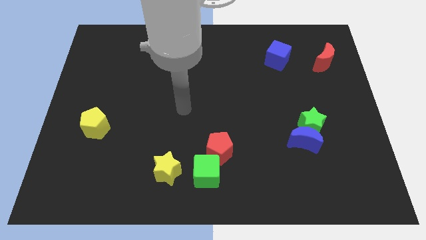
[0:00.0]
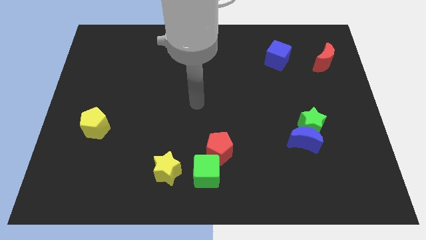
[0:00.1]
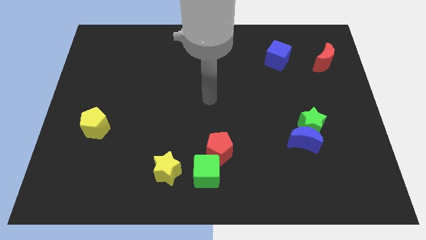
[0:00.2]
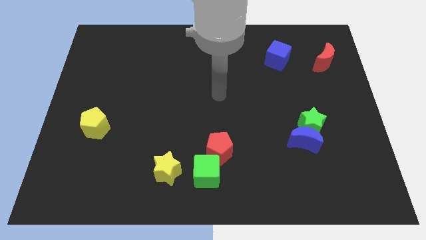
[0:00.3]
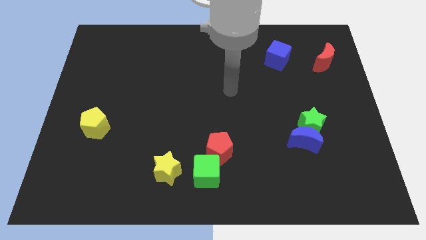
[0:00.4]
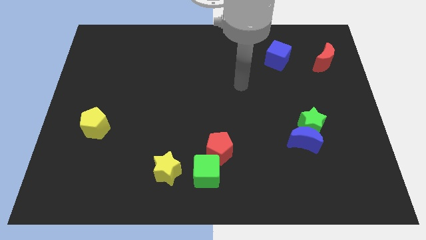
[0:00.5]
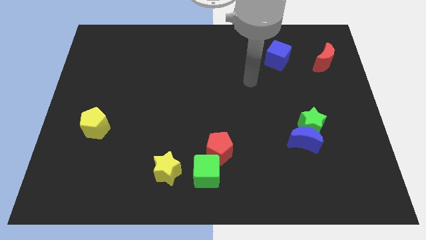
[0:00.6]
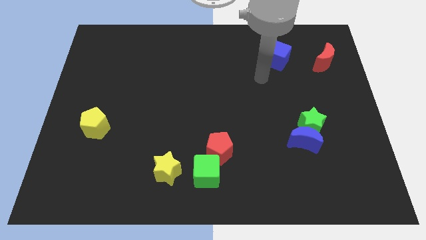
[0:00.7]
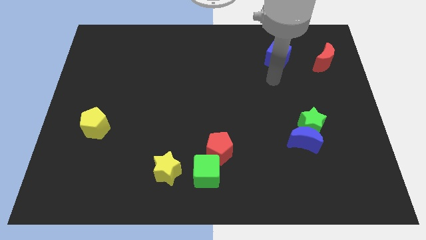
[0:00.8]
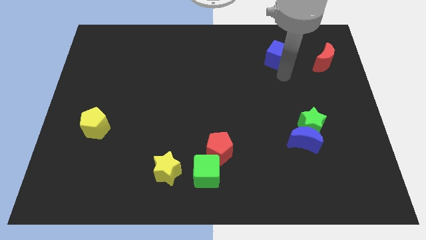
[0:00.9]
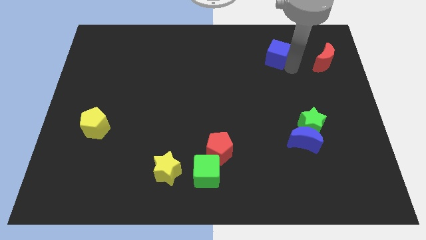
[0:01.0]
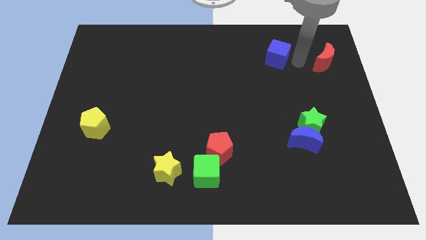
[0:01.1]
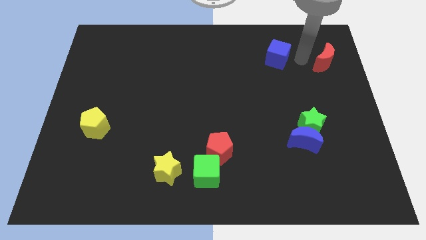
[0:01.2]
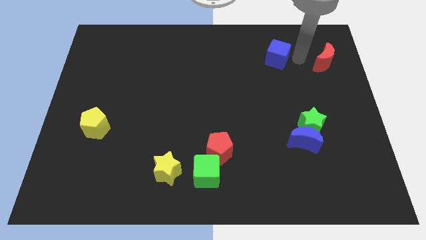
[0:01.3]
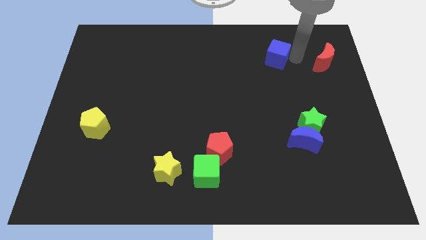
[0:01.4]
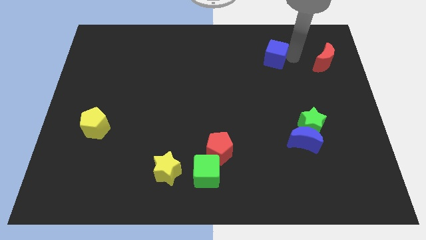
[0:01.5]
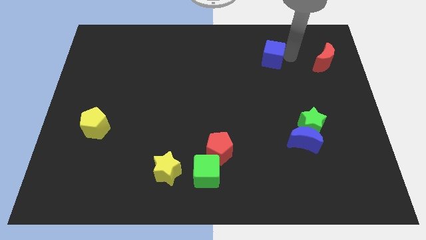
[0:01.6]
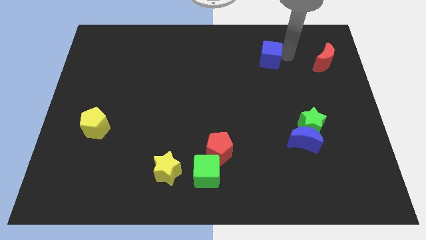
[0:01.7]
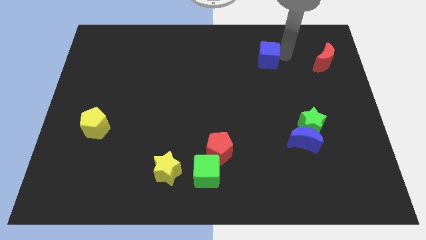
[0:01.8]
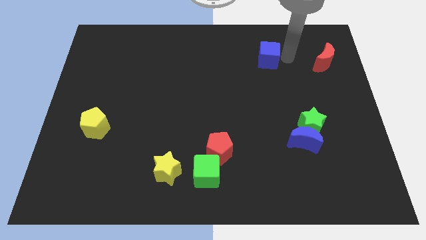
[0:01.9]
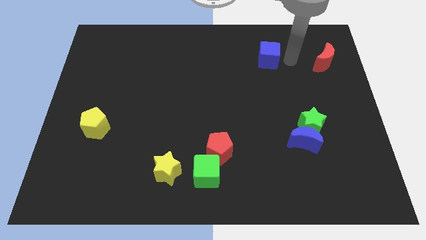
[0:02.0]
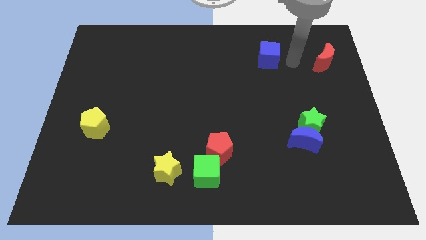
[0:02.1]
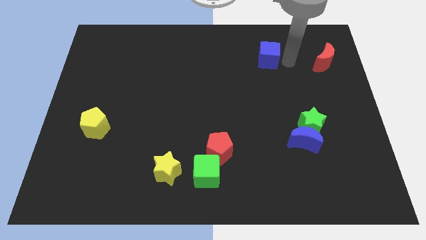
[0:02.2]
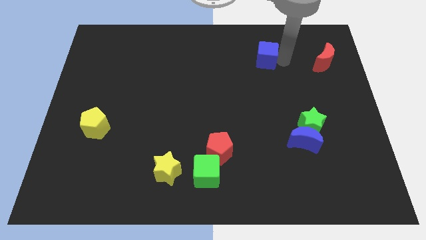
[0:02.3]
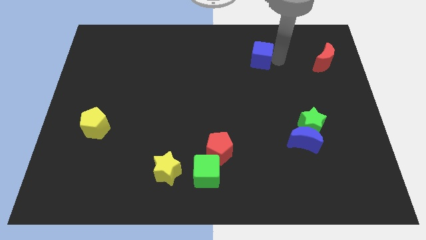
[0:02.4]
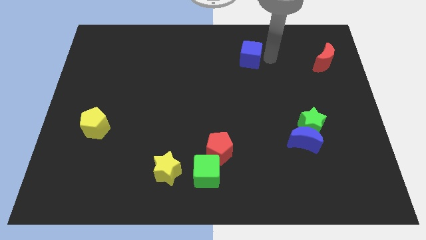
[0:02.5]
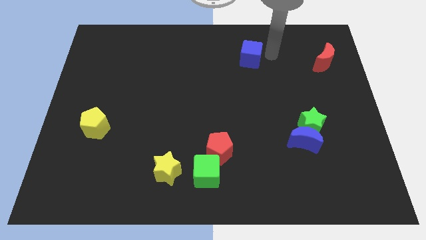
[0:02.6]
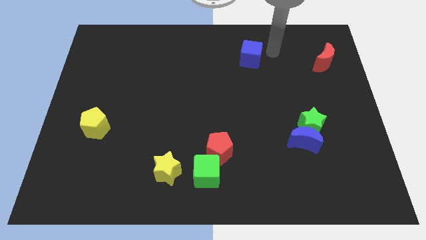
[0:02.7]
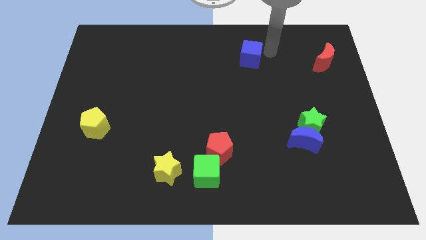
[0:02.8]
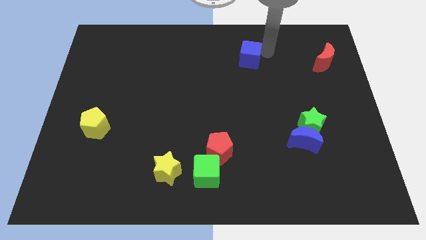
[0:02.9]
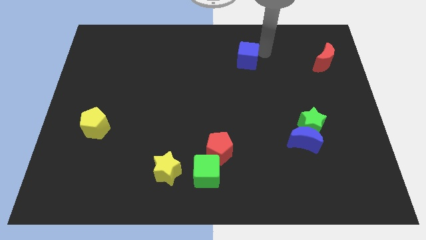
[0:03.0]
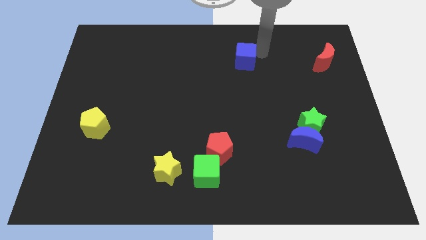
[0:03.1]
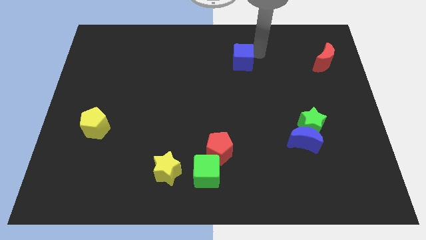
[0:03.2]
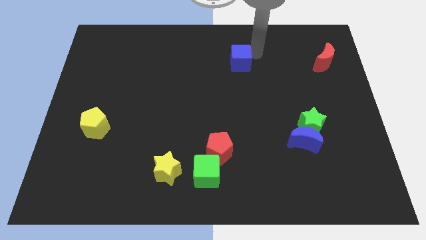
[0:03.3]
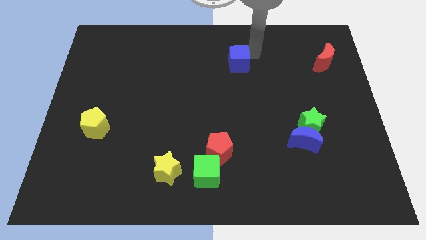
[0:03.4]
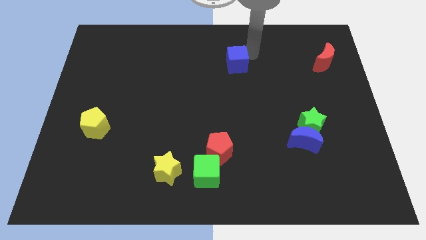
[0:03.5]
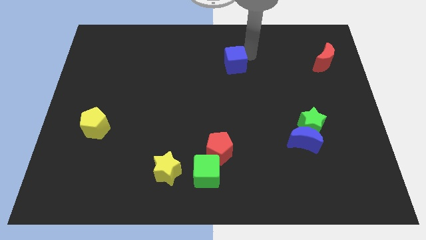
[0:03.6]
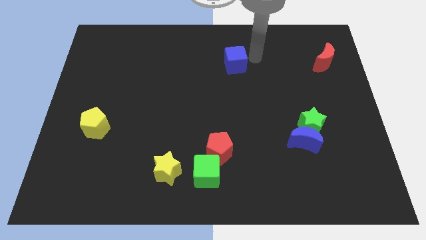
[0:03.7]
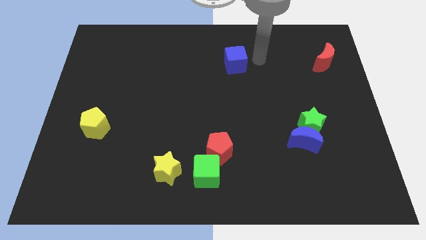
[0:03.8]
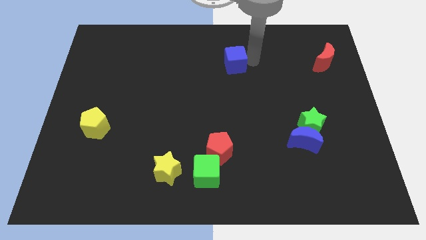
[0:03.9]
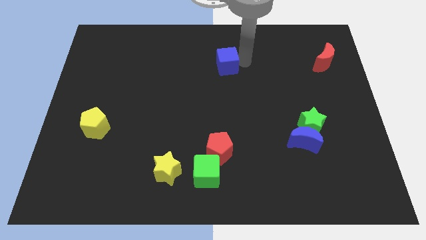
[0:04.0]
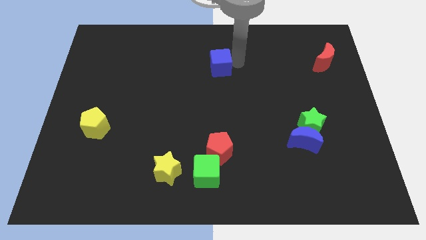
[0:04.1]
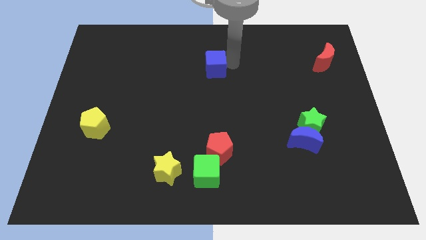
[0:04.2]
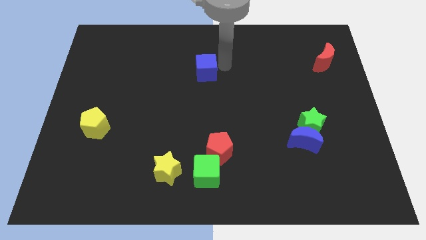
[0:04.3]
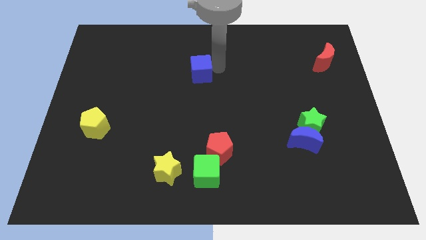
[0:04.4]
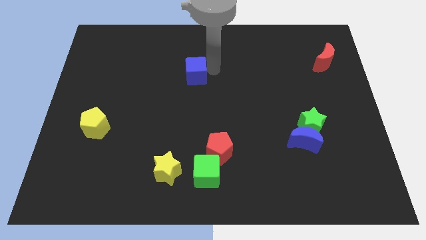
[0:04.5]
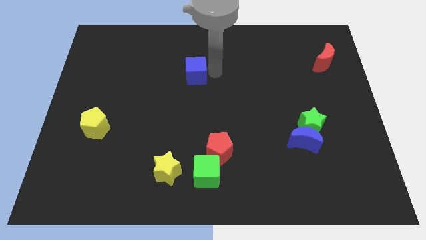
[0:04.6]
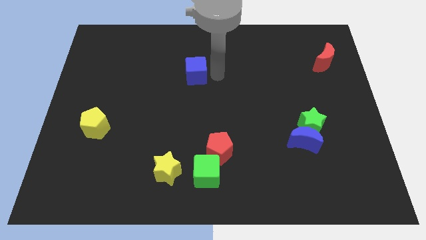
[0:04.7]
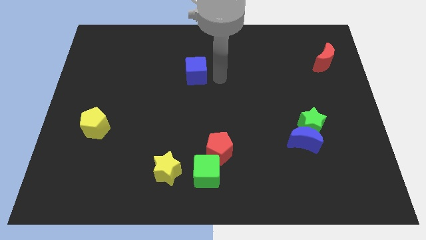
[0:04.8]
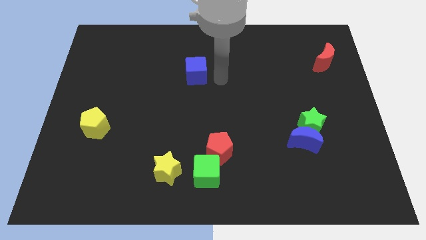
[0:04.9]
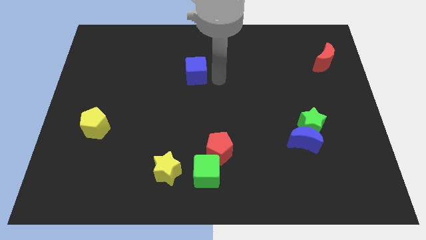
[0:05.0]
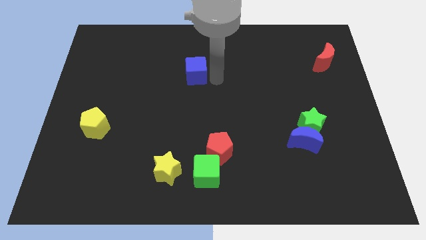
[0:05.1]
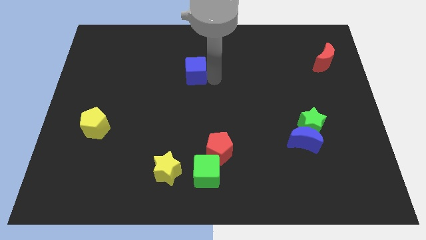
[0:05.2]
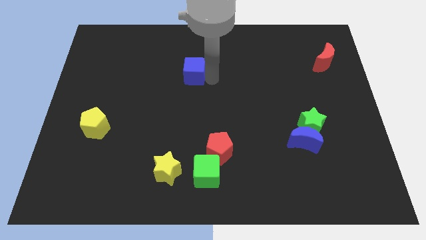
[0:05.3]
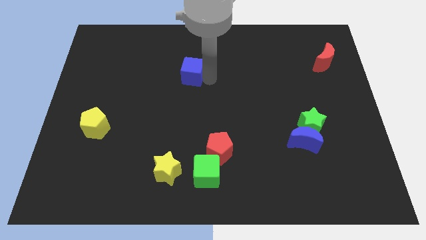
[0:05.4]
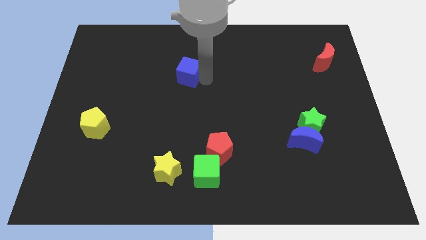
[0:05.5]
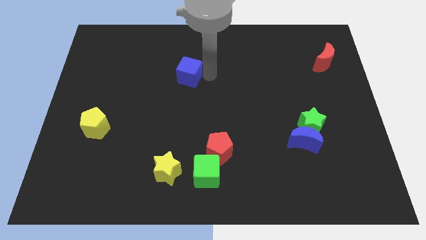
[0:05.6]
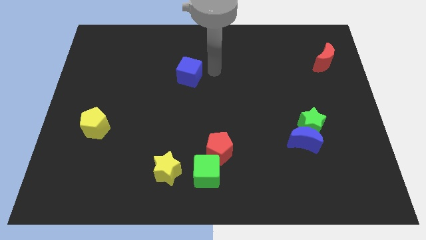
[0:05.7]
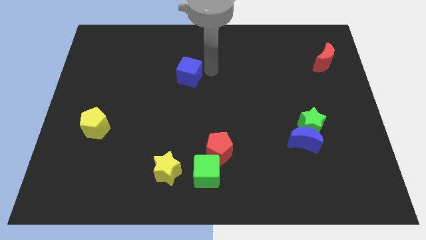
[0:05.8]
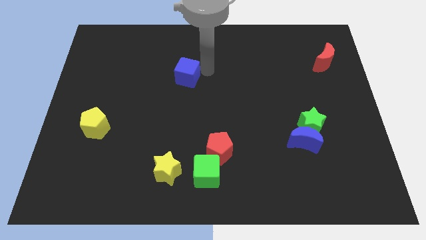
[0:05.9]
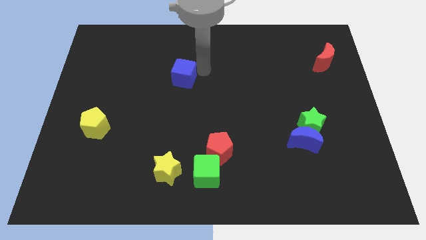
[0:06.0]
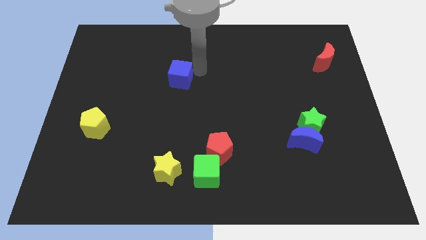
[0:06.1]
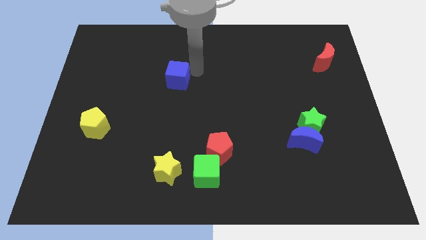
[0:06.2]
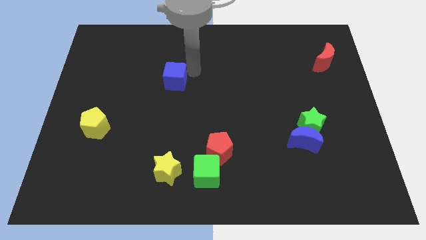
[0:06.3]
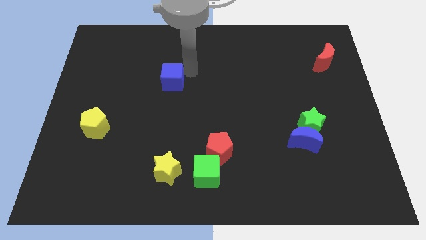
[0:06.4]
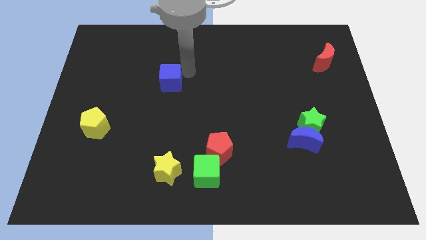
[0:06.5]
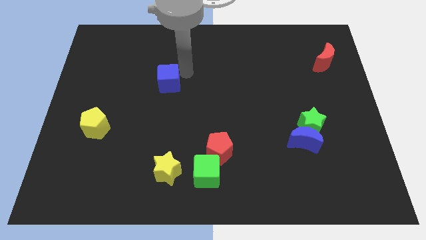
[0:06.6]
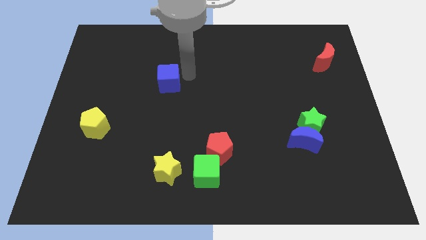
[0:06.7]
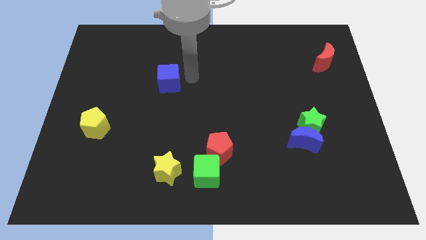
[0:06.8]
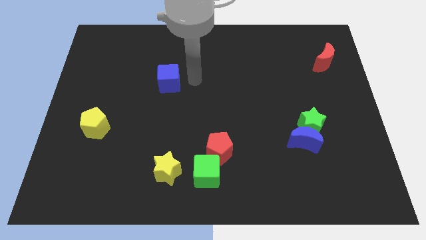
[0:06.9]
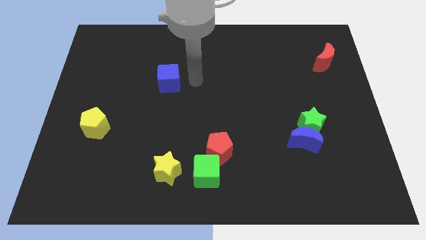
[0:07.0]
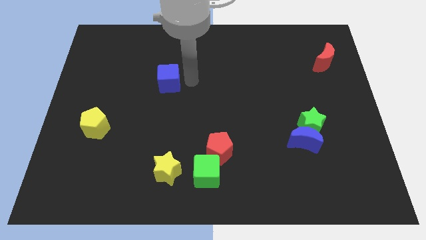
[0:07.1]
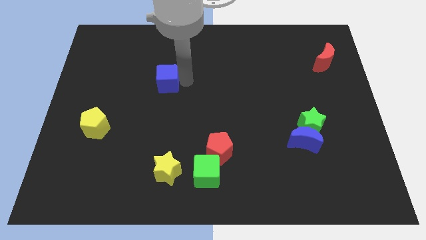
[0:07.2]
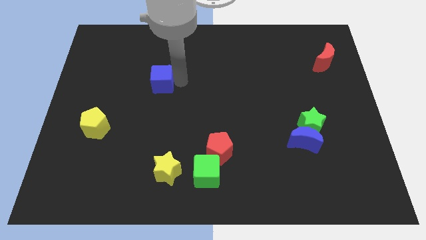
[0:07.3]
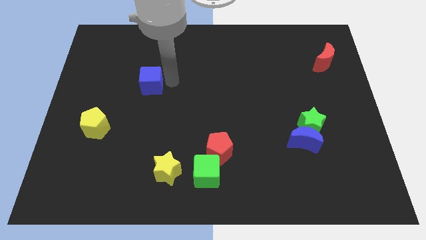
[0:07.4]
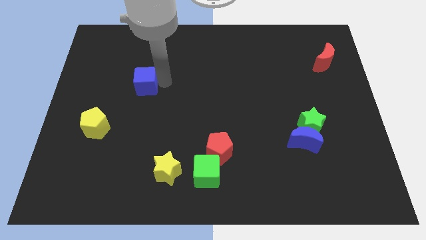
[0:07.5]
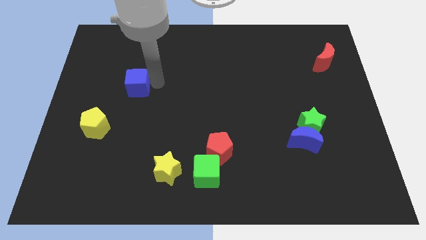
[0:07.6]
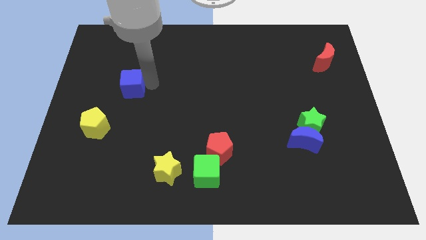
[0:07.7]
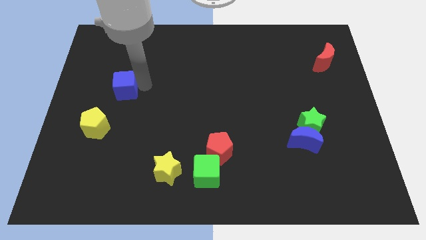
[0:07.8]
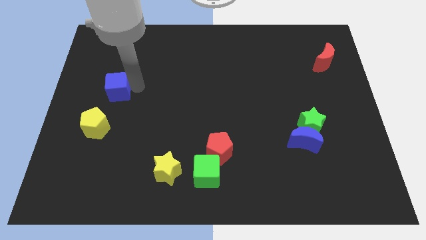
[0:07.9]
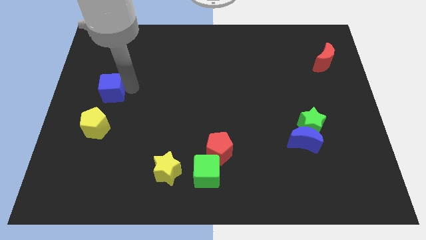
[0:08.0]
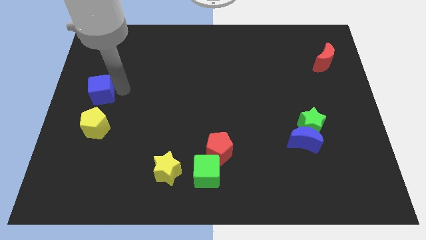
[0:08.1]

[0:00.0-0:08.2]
move the blue cube to the center left
